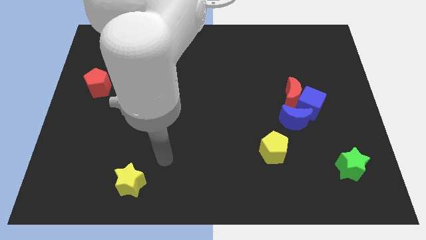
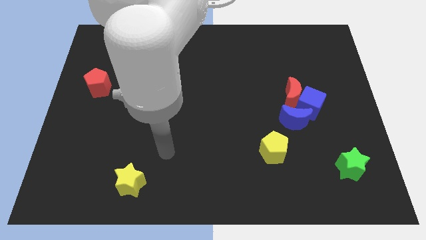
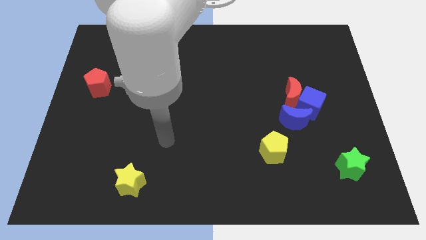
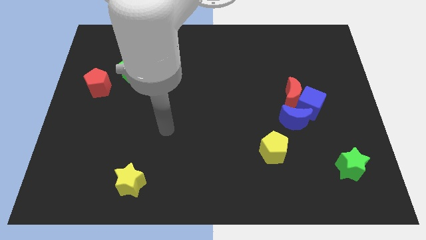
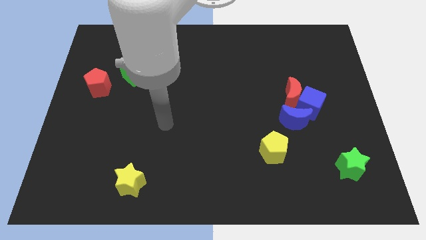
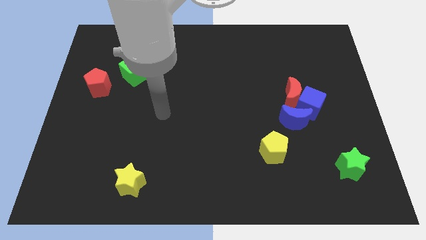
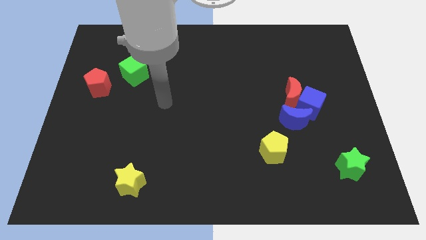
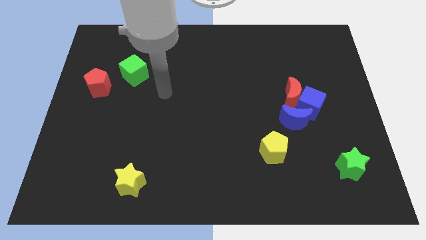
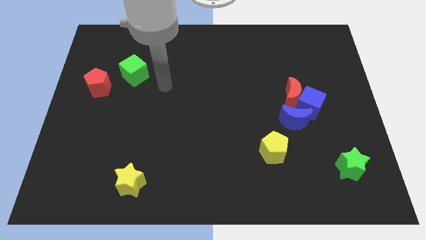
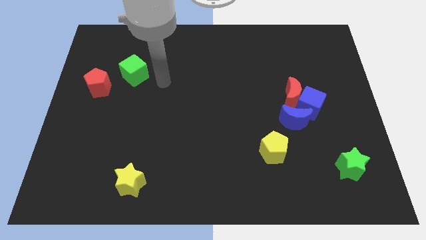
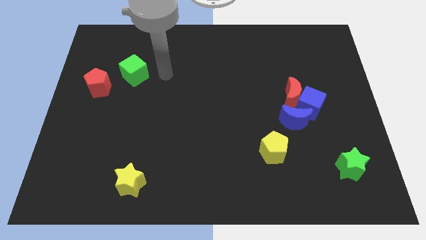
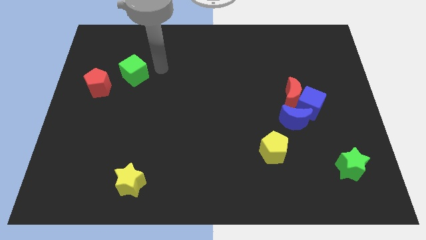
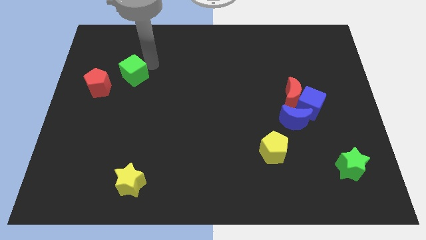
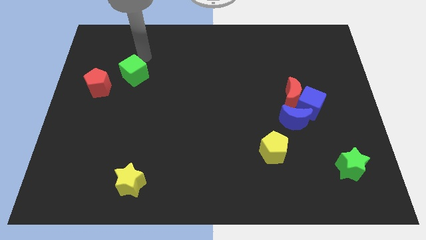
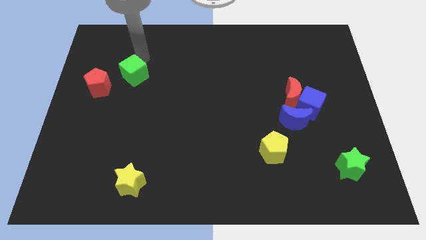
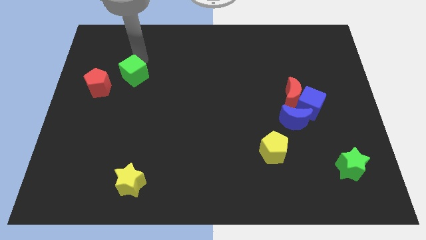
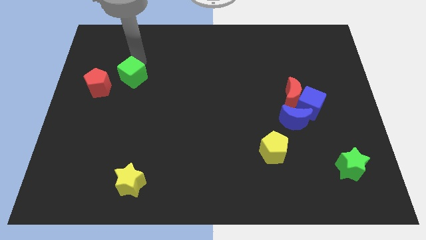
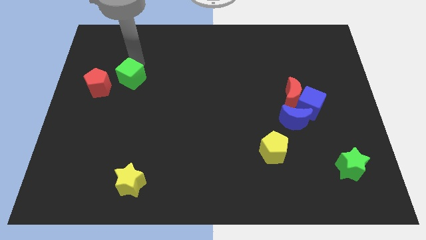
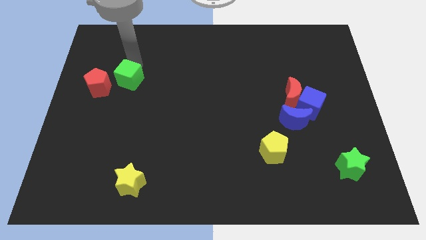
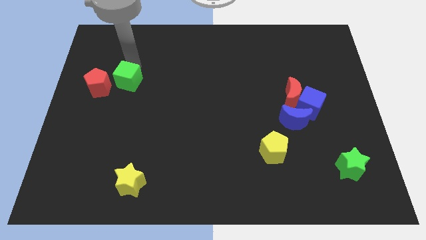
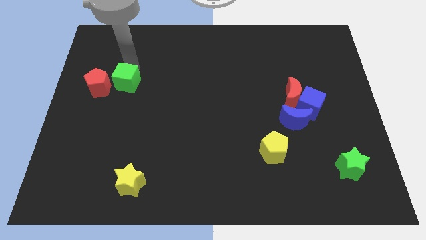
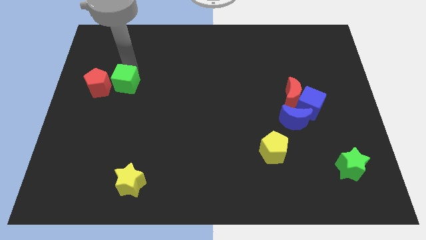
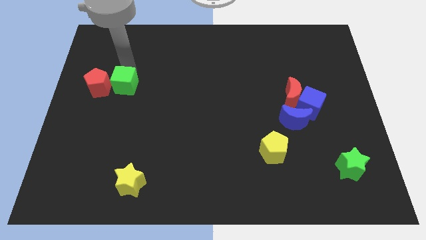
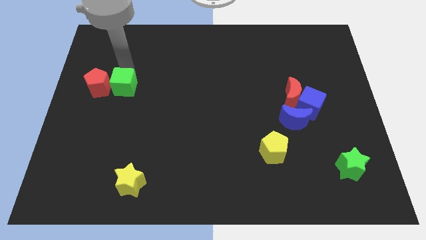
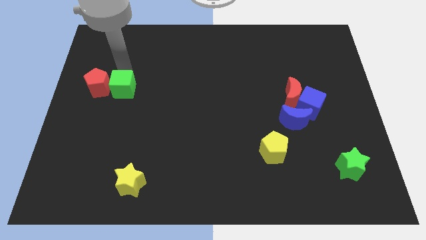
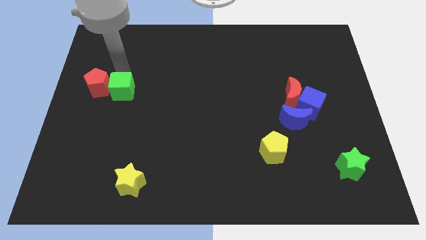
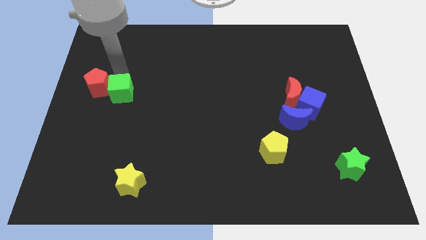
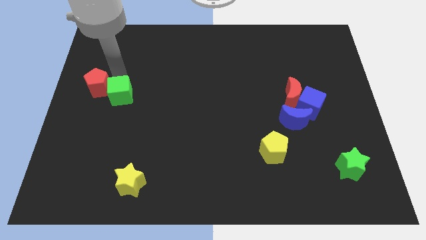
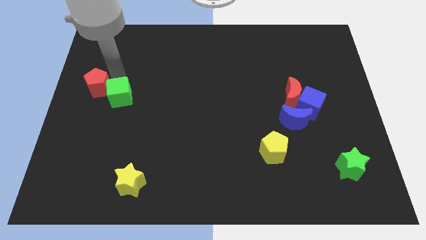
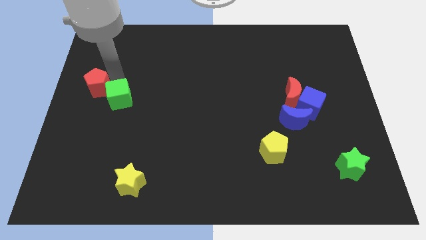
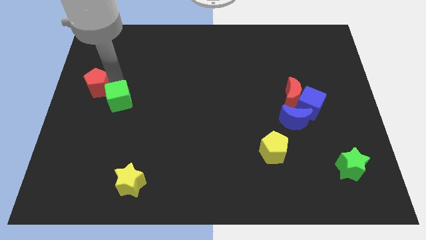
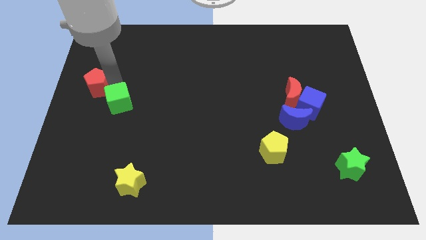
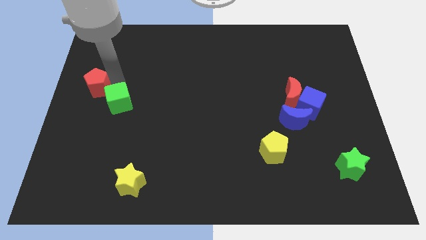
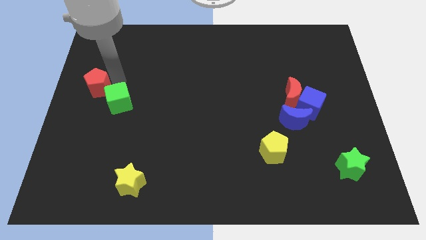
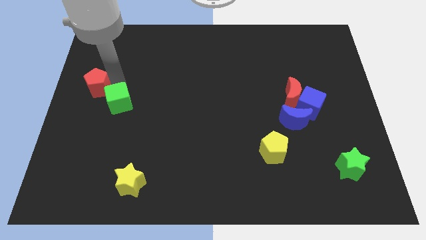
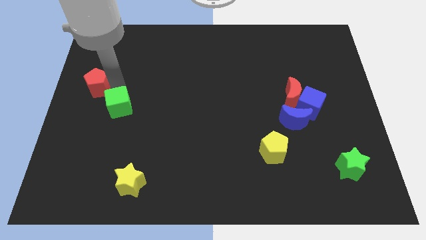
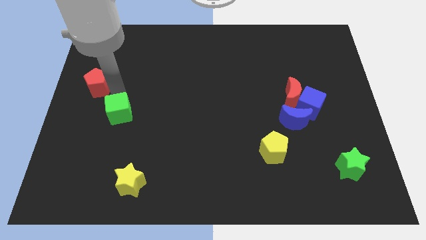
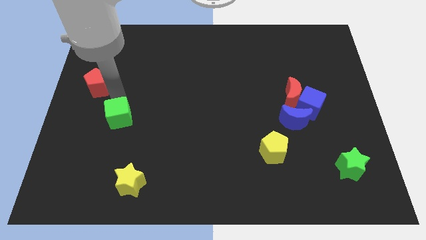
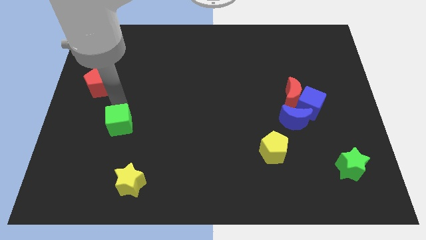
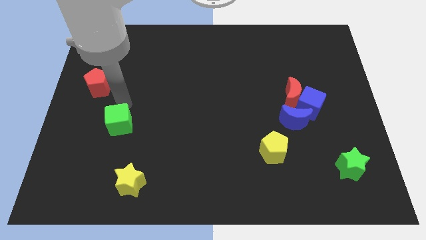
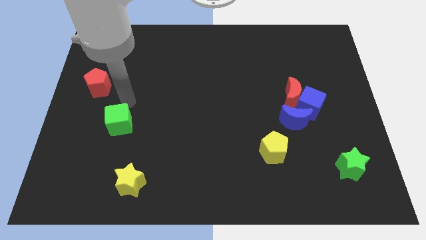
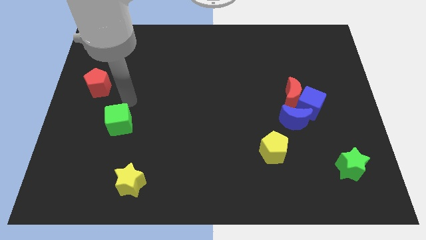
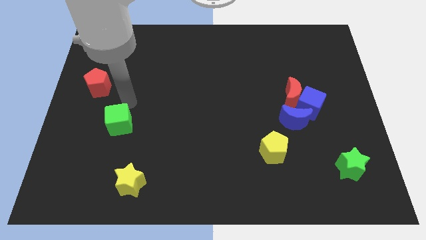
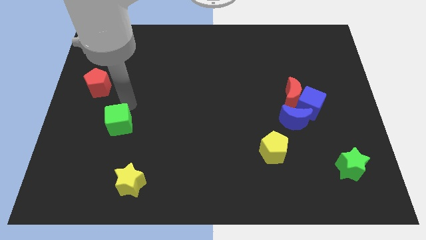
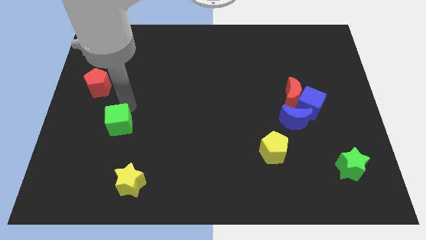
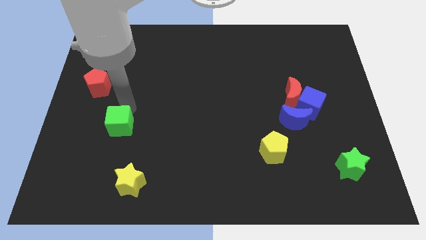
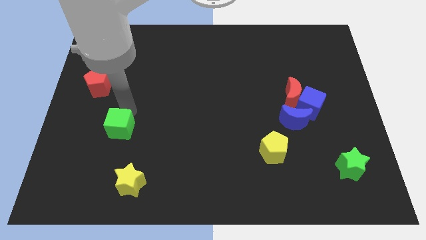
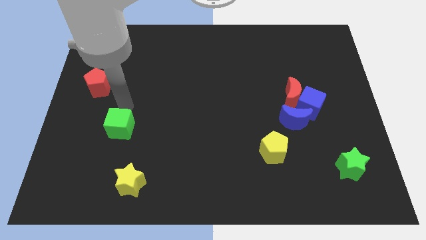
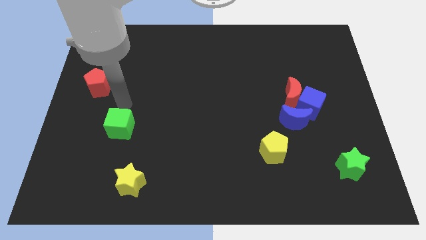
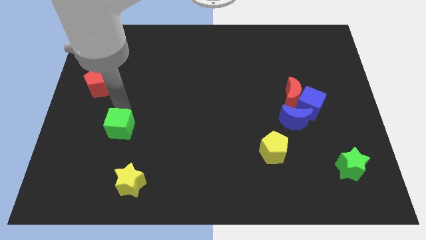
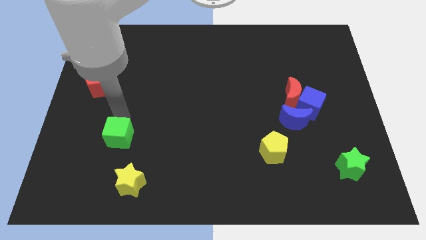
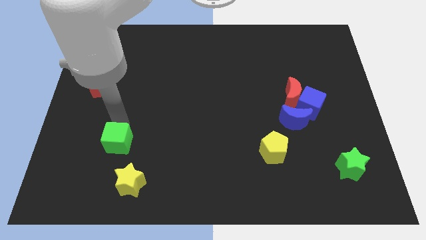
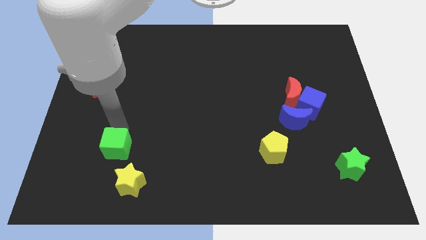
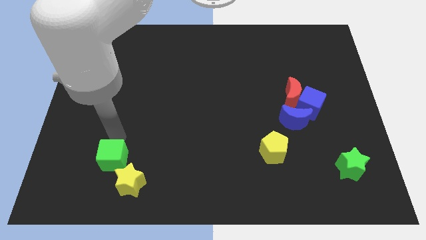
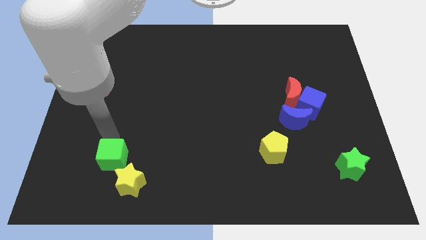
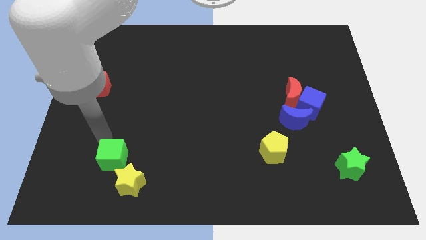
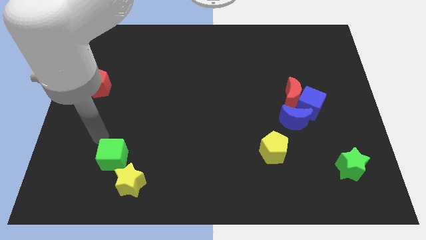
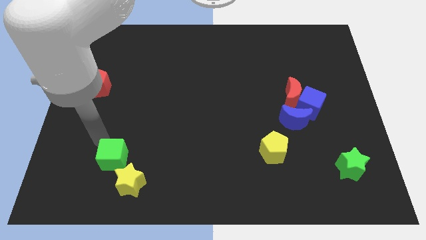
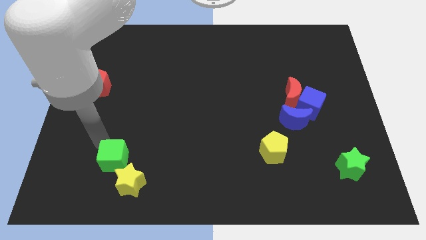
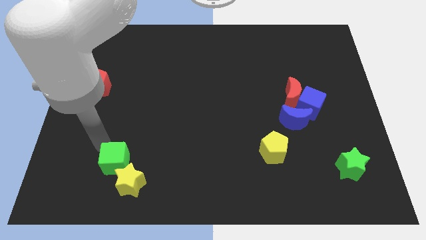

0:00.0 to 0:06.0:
slide the green cube close to the yellow star
